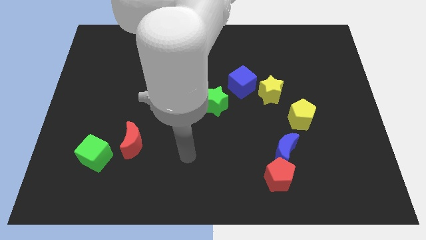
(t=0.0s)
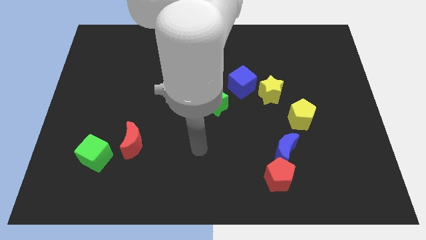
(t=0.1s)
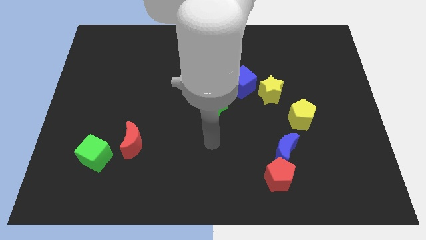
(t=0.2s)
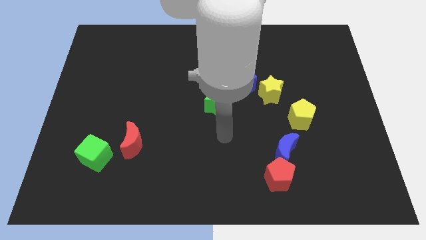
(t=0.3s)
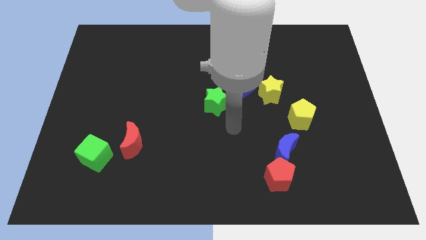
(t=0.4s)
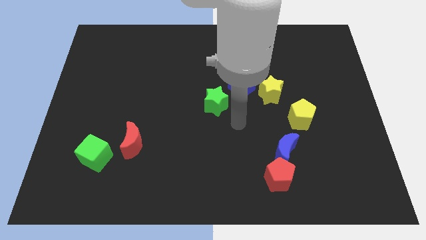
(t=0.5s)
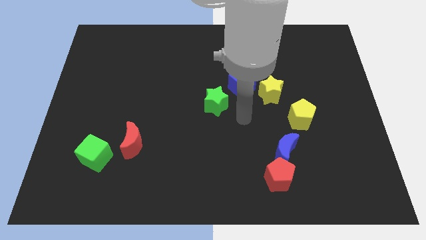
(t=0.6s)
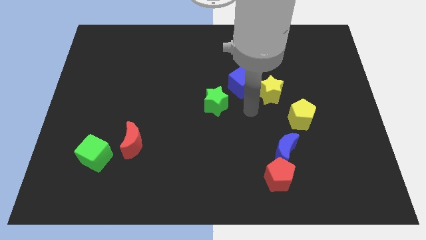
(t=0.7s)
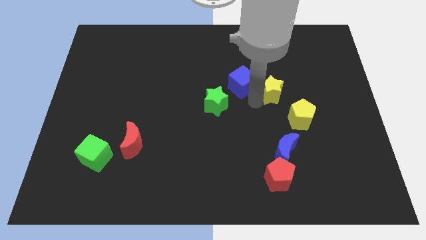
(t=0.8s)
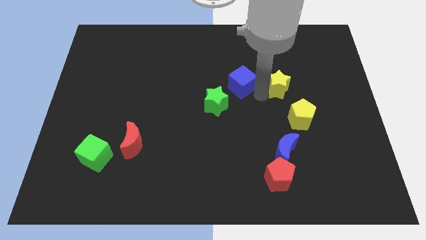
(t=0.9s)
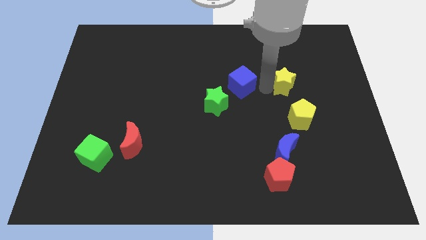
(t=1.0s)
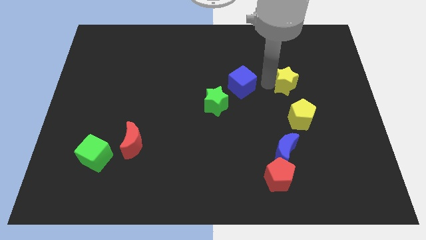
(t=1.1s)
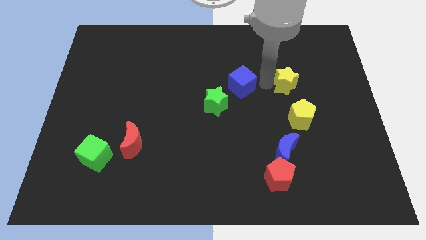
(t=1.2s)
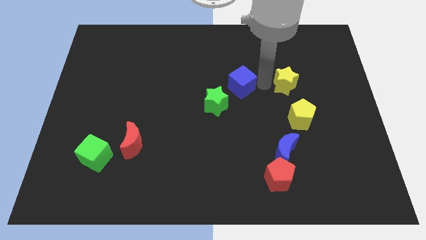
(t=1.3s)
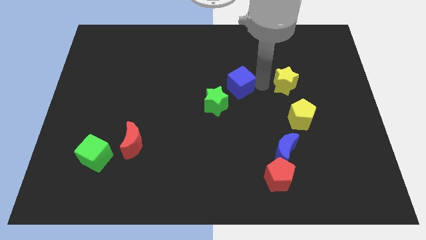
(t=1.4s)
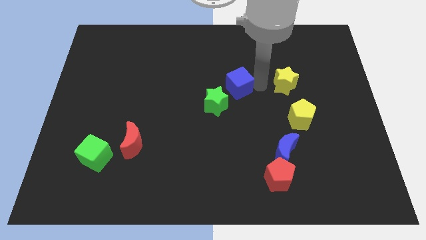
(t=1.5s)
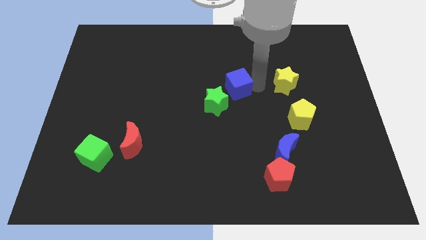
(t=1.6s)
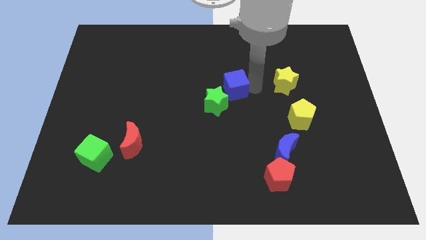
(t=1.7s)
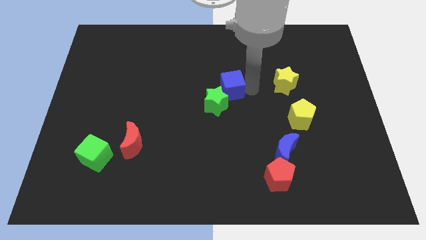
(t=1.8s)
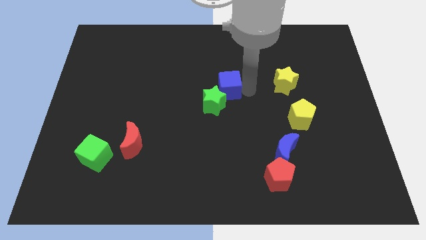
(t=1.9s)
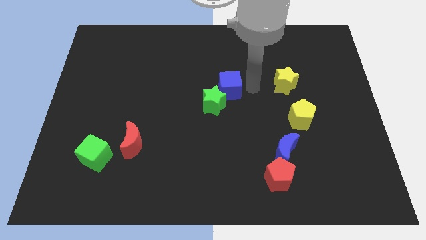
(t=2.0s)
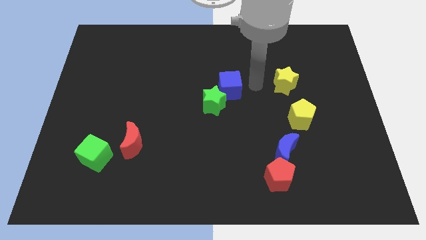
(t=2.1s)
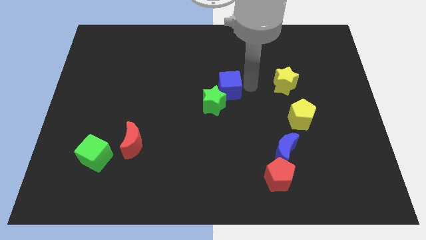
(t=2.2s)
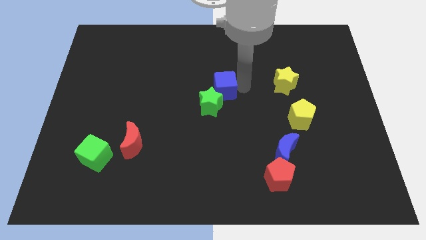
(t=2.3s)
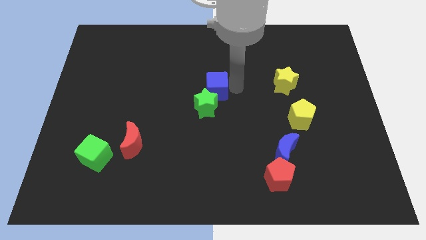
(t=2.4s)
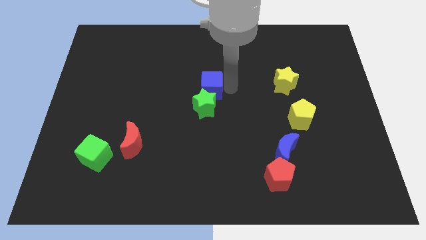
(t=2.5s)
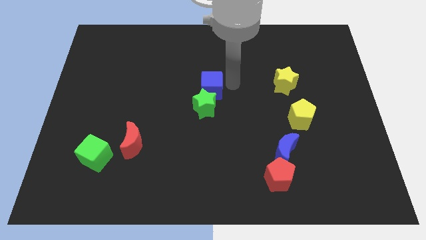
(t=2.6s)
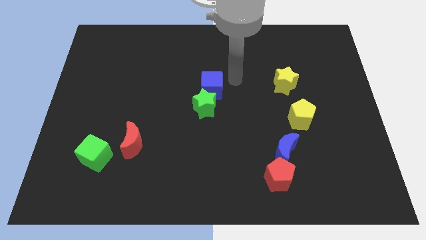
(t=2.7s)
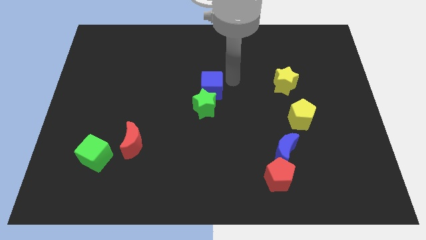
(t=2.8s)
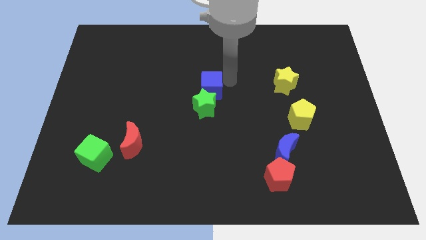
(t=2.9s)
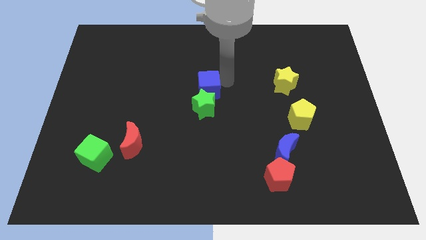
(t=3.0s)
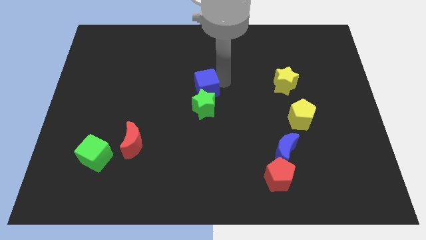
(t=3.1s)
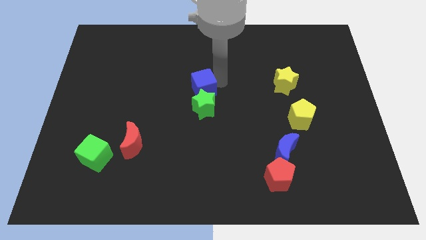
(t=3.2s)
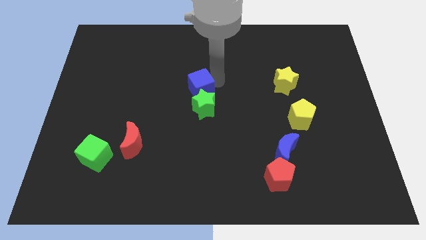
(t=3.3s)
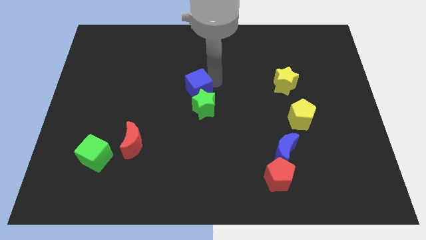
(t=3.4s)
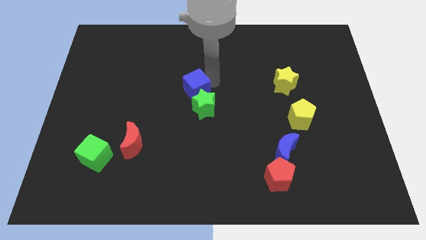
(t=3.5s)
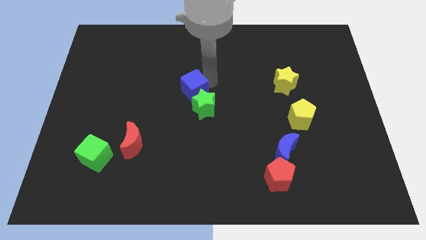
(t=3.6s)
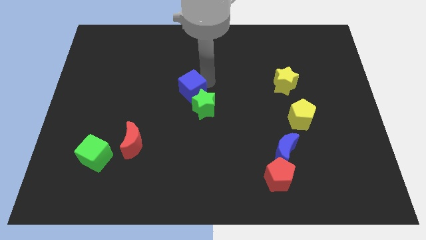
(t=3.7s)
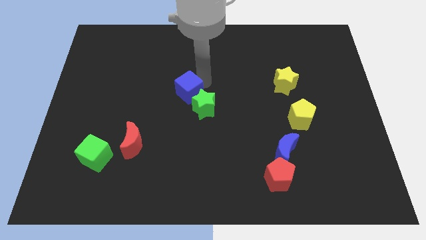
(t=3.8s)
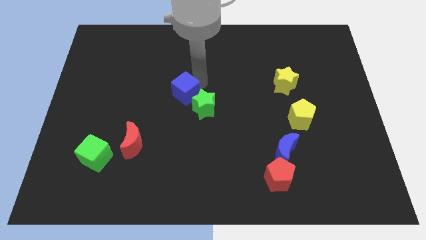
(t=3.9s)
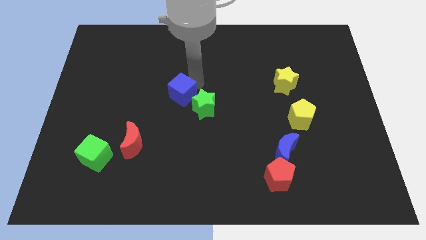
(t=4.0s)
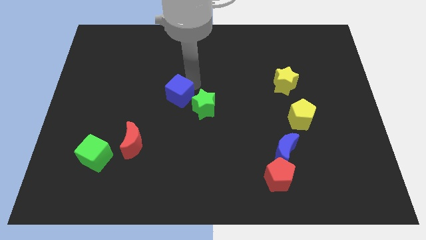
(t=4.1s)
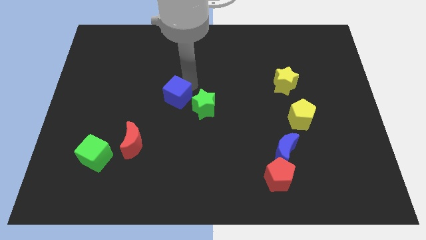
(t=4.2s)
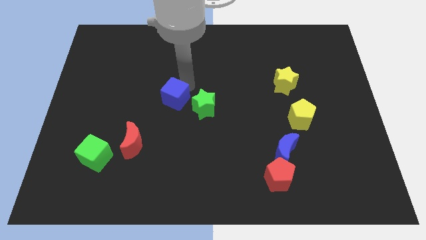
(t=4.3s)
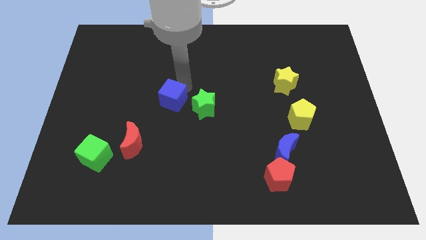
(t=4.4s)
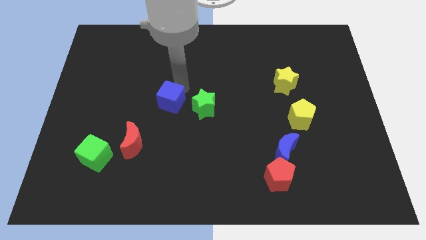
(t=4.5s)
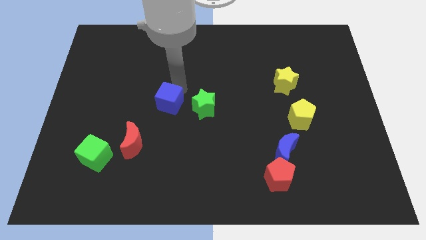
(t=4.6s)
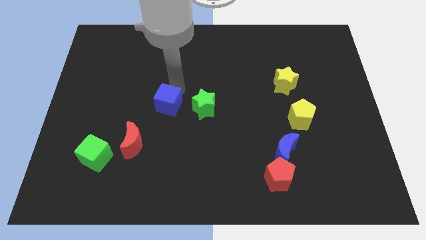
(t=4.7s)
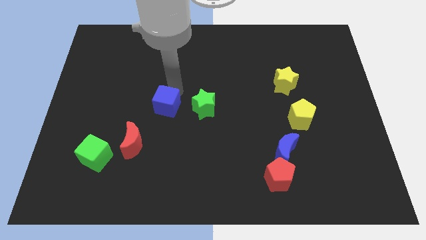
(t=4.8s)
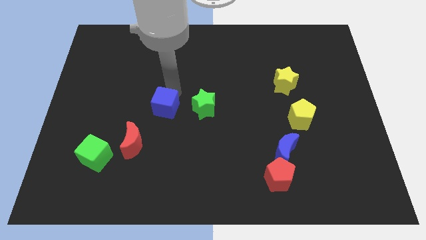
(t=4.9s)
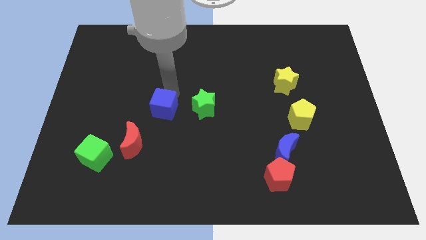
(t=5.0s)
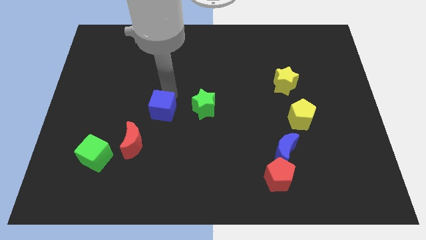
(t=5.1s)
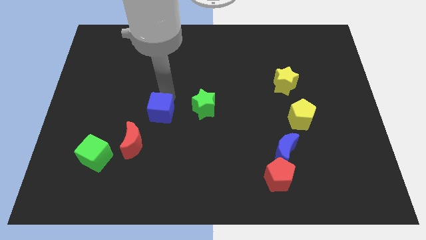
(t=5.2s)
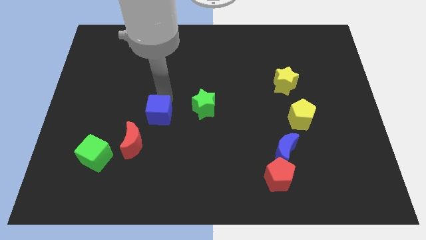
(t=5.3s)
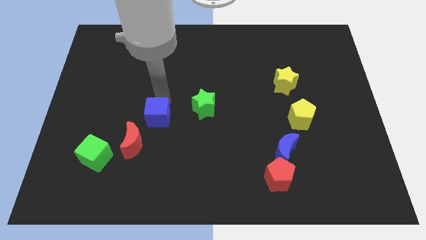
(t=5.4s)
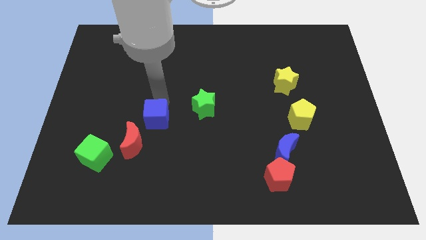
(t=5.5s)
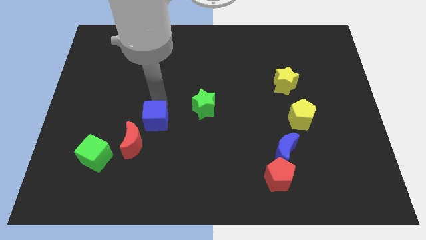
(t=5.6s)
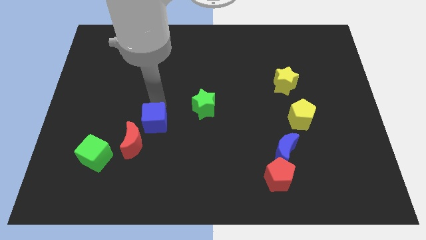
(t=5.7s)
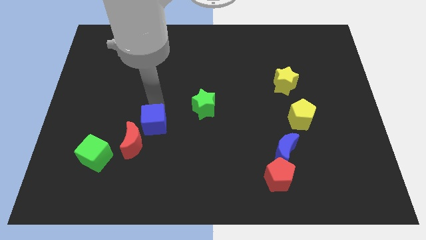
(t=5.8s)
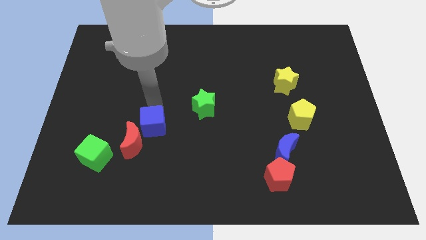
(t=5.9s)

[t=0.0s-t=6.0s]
put the blue cube next to the red moon

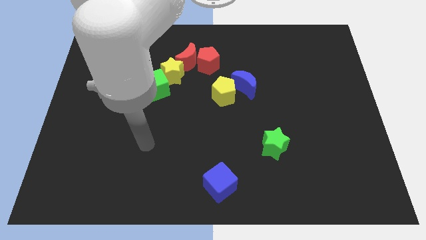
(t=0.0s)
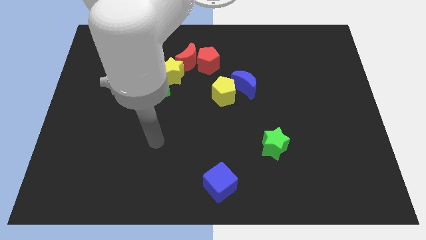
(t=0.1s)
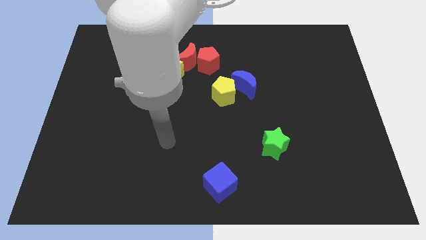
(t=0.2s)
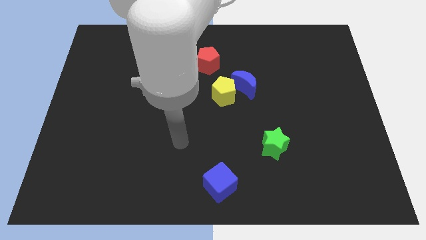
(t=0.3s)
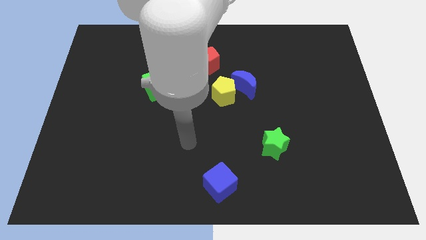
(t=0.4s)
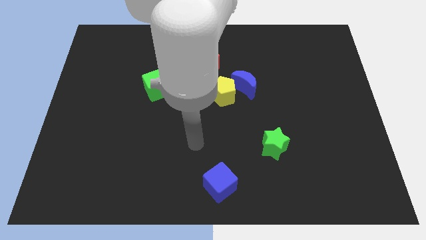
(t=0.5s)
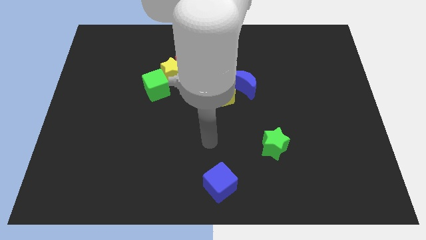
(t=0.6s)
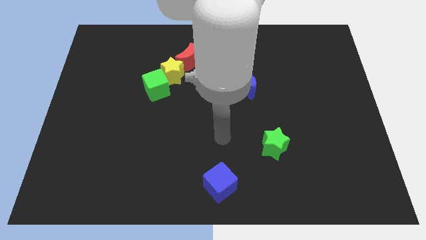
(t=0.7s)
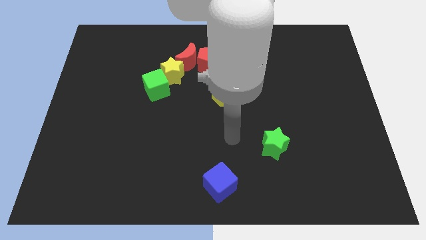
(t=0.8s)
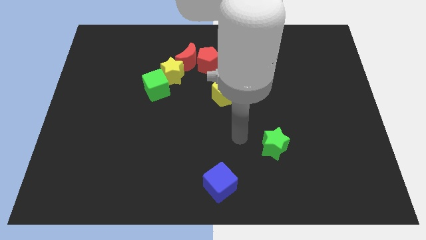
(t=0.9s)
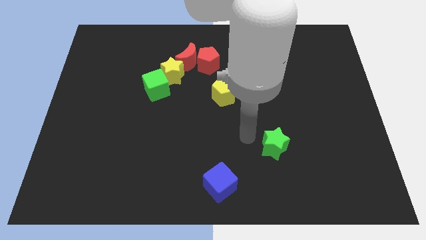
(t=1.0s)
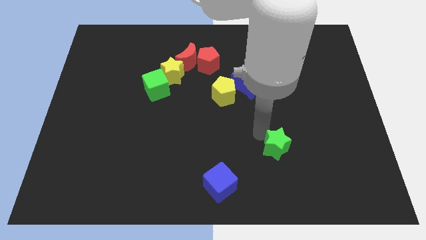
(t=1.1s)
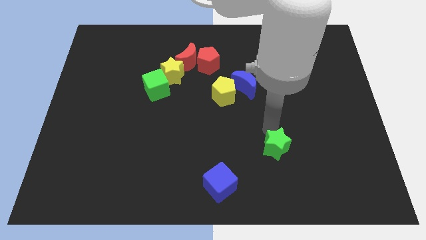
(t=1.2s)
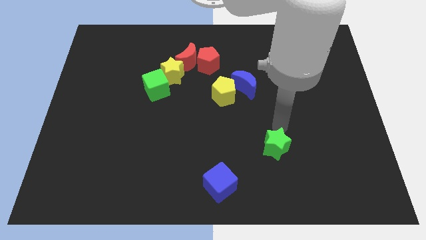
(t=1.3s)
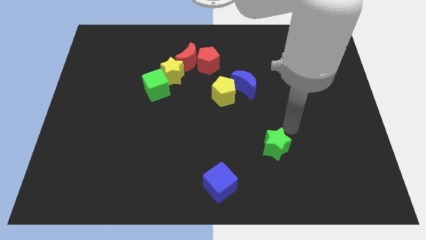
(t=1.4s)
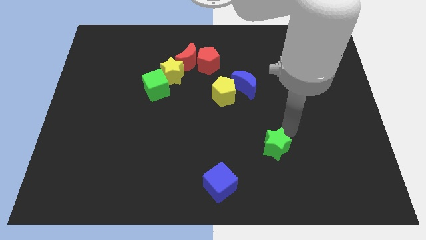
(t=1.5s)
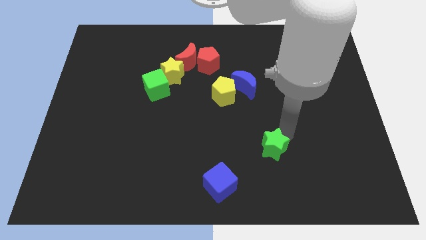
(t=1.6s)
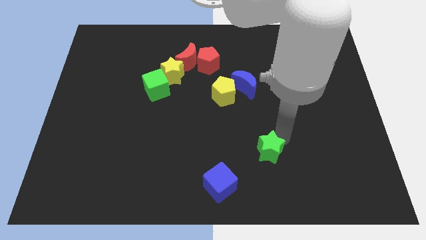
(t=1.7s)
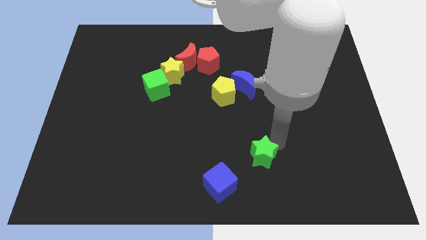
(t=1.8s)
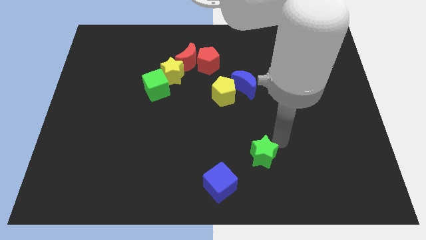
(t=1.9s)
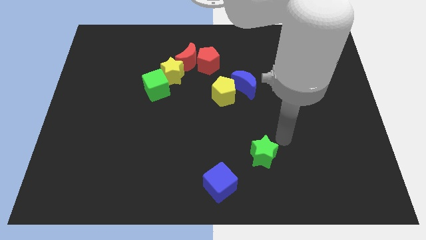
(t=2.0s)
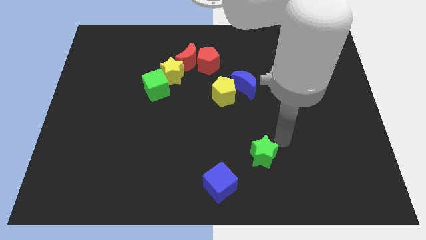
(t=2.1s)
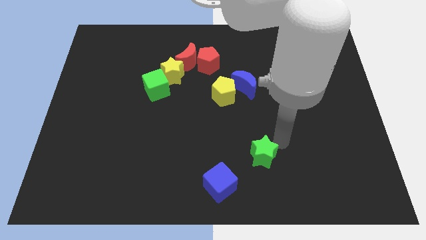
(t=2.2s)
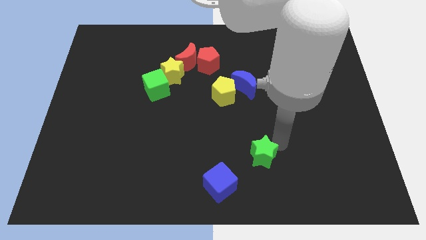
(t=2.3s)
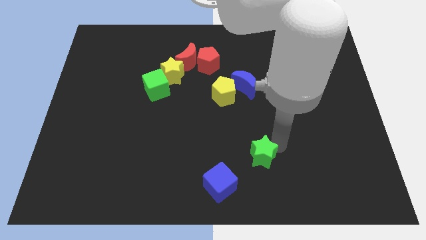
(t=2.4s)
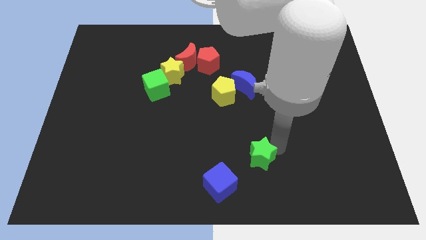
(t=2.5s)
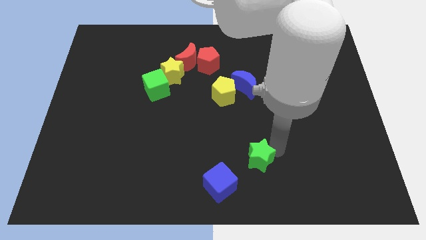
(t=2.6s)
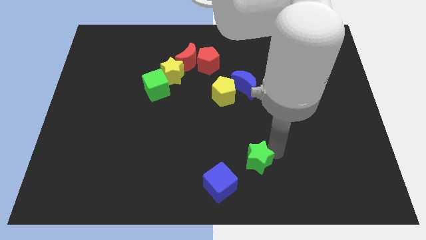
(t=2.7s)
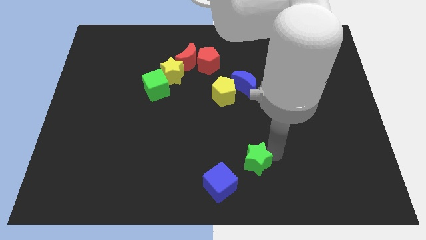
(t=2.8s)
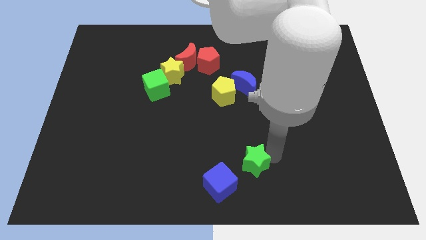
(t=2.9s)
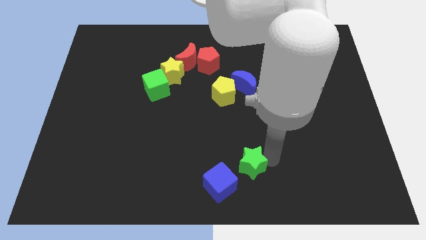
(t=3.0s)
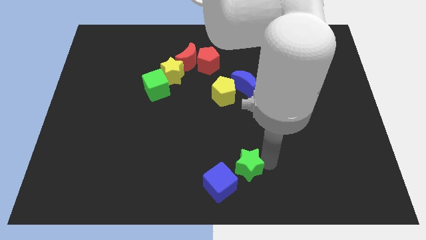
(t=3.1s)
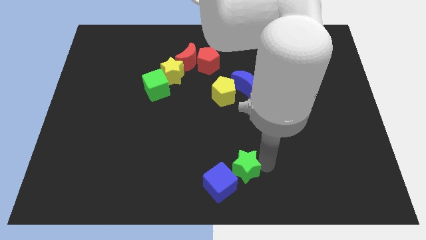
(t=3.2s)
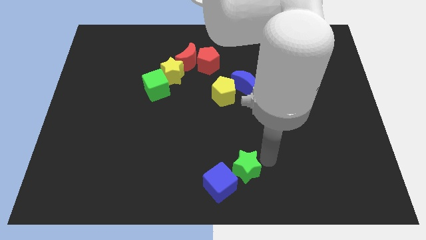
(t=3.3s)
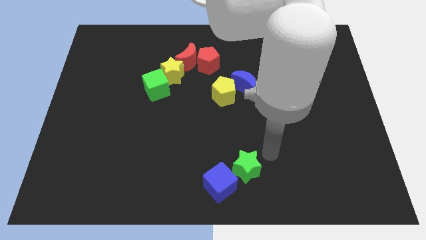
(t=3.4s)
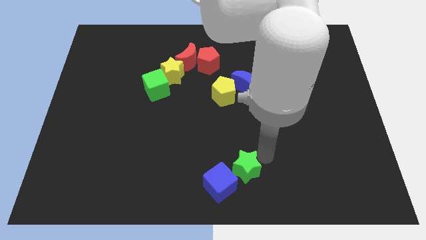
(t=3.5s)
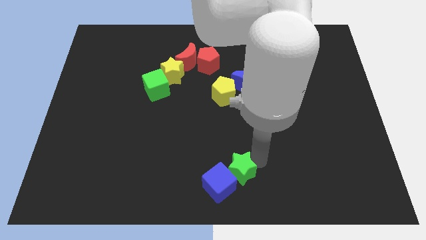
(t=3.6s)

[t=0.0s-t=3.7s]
move the green star towards the blue cube
